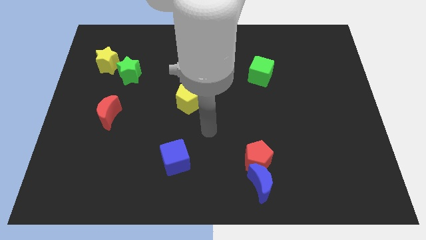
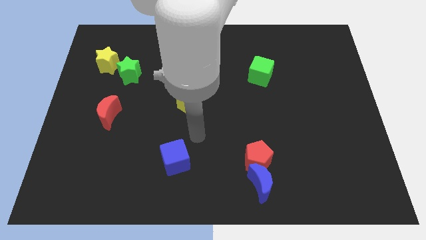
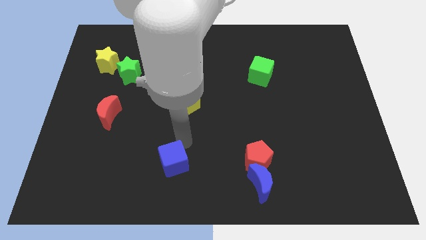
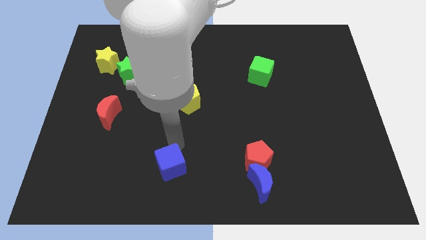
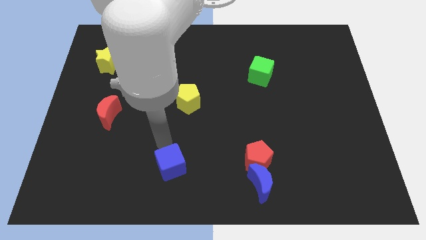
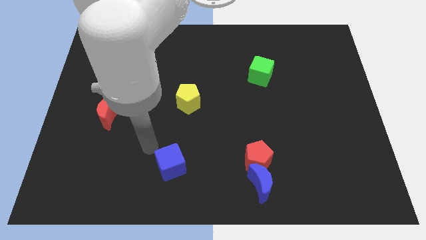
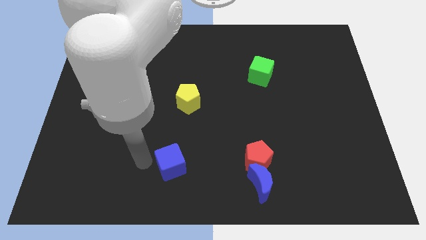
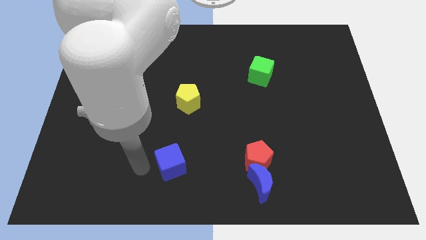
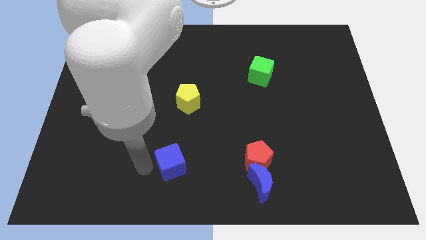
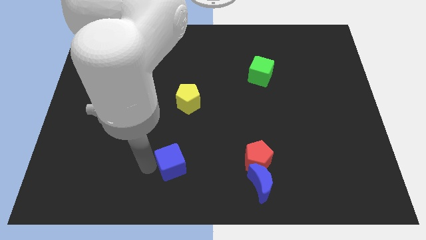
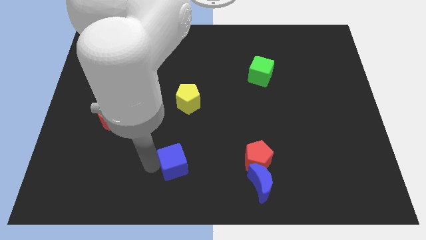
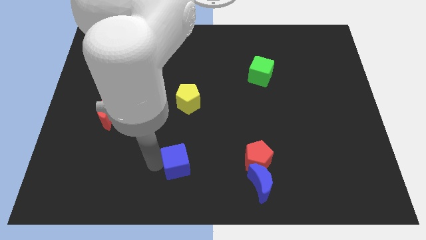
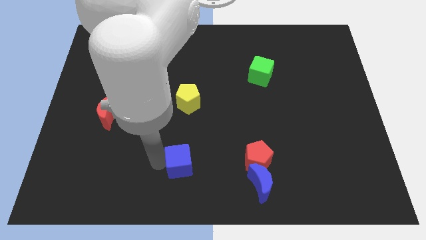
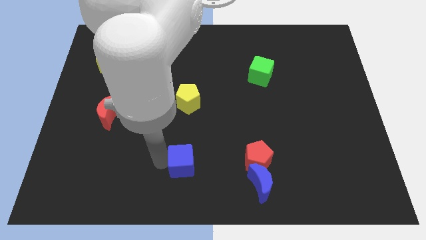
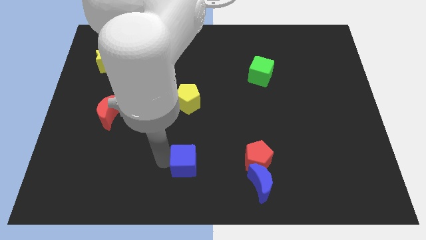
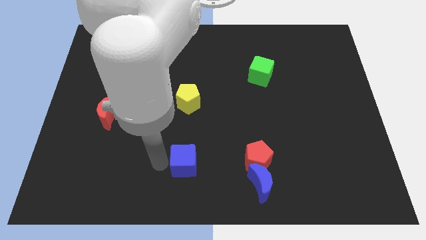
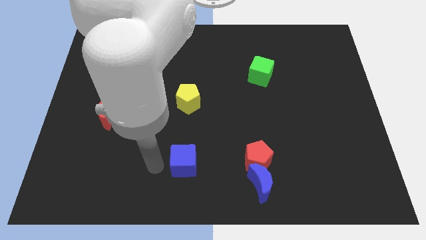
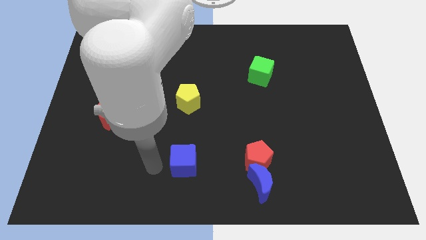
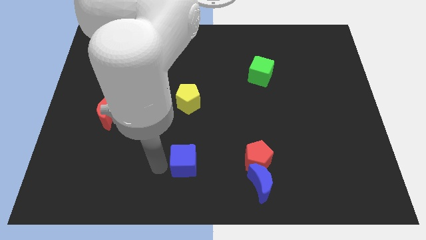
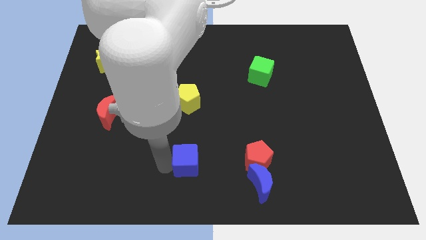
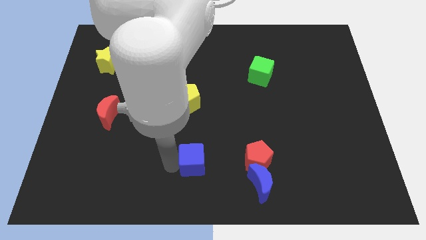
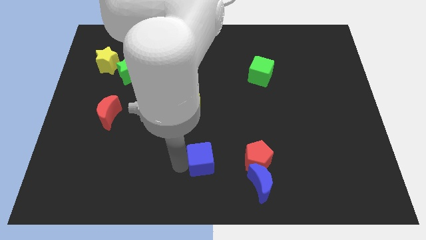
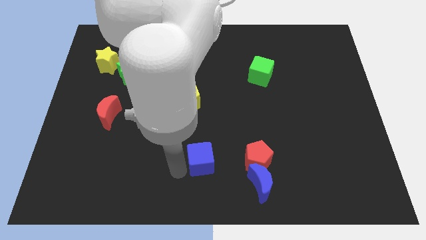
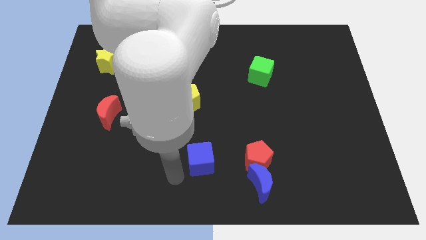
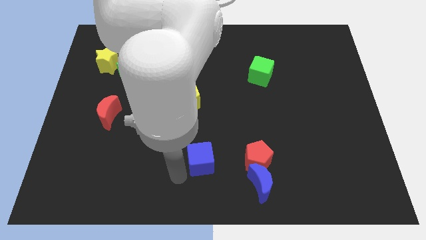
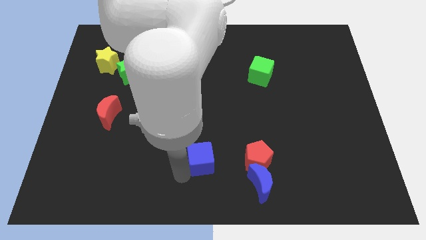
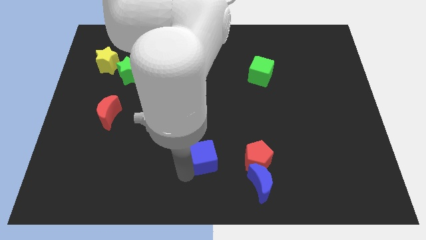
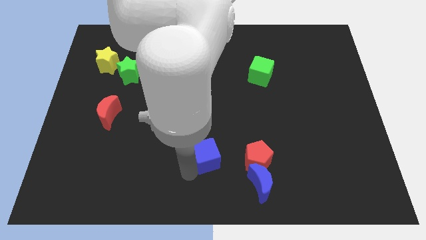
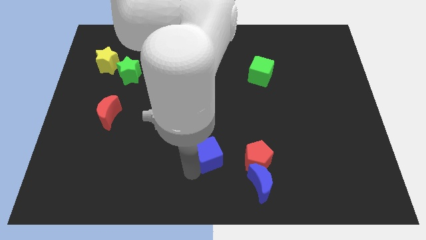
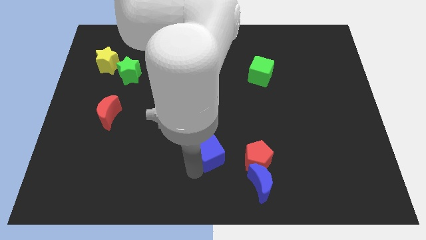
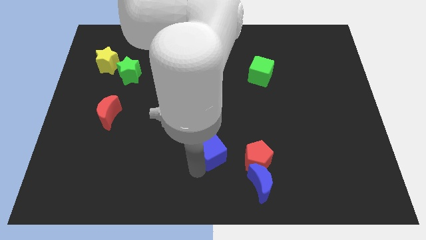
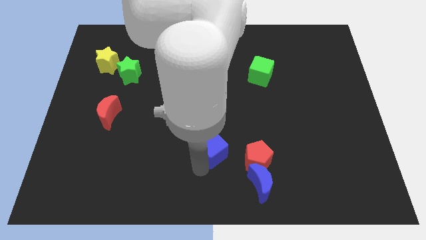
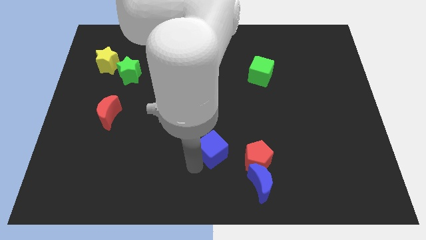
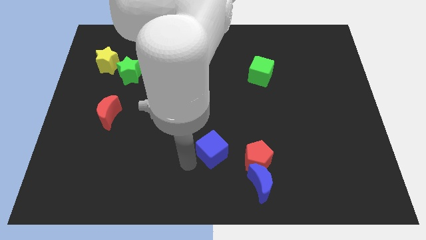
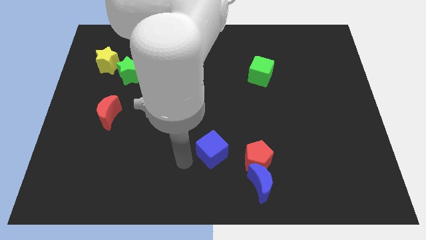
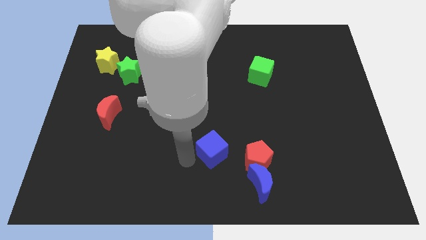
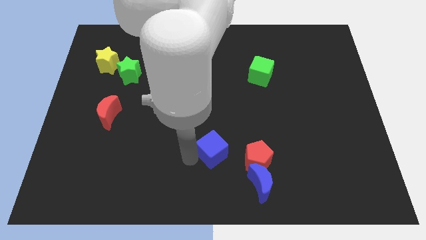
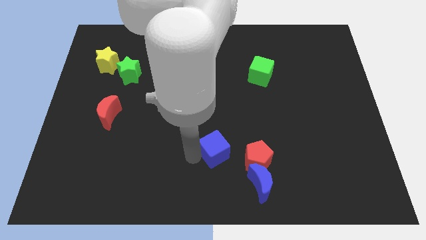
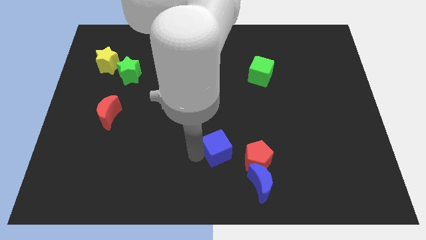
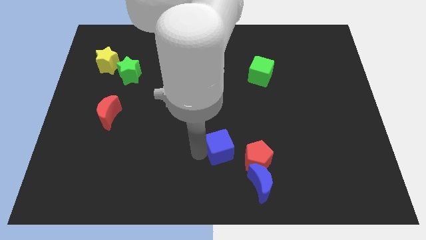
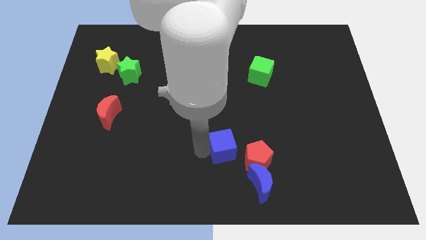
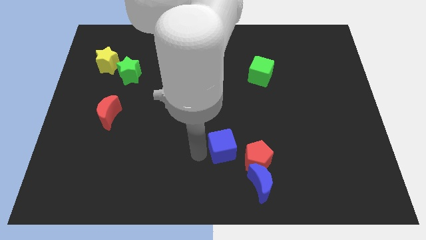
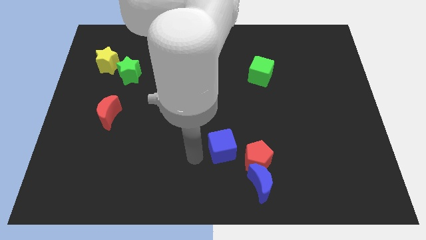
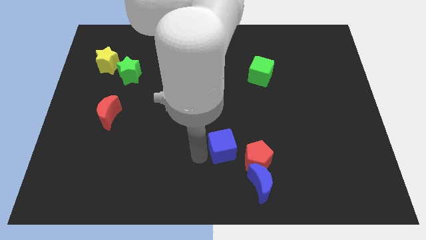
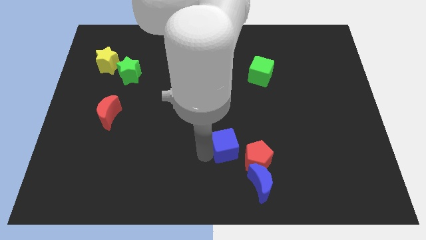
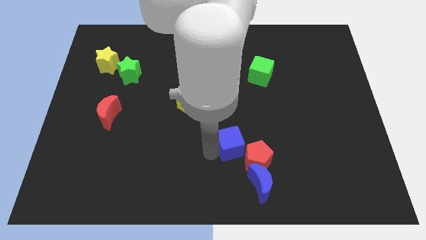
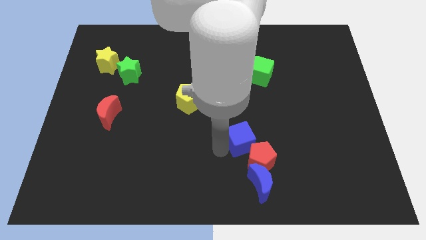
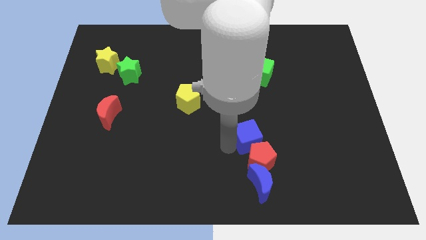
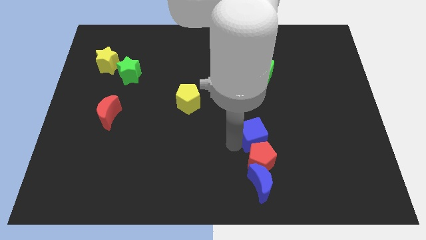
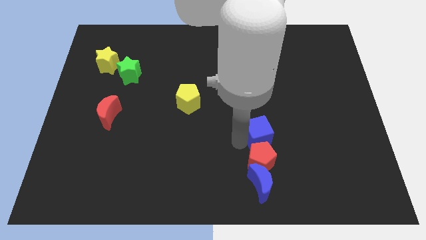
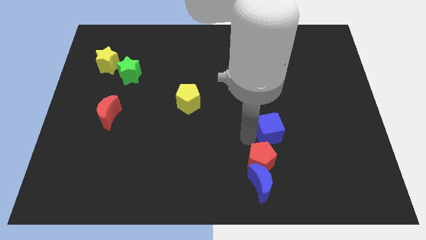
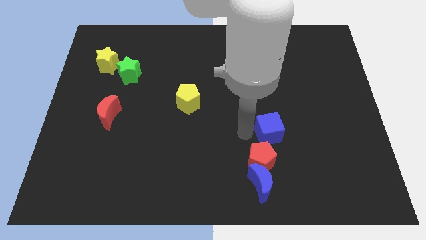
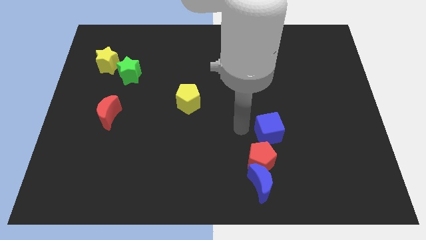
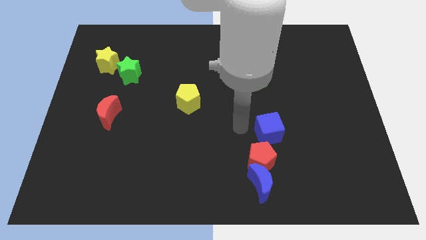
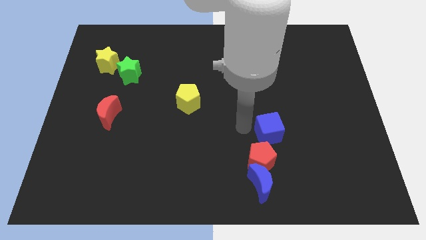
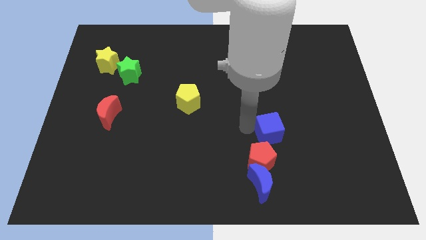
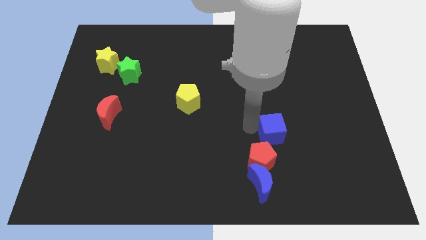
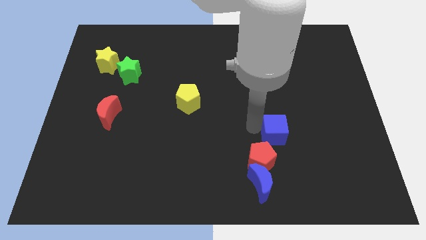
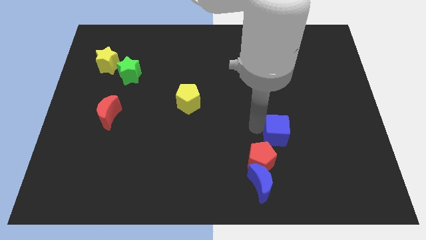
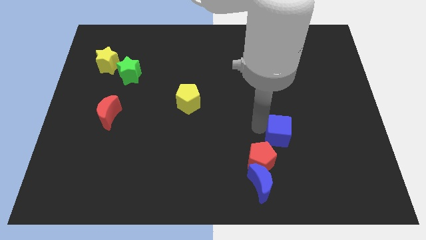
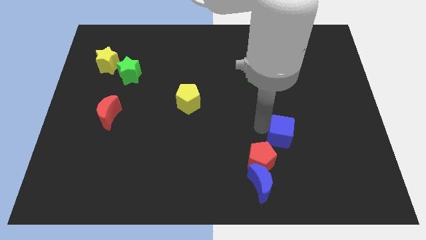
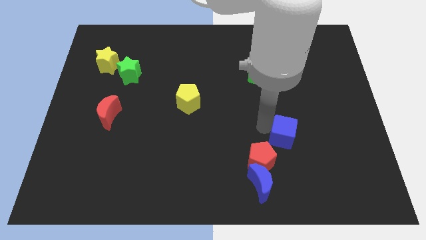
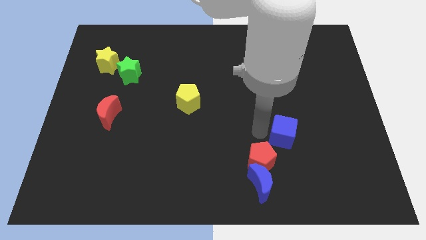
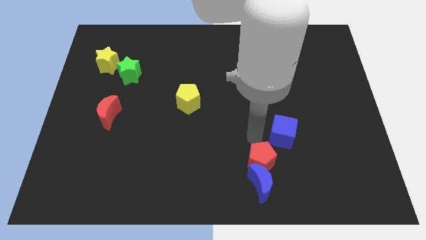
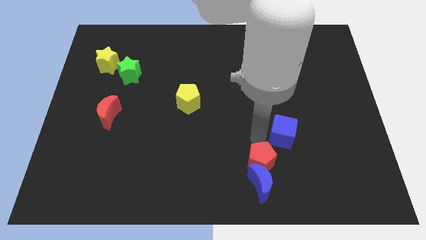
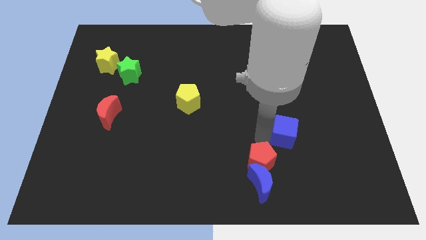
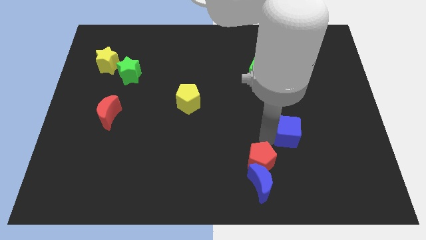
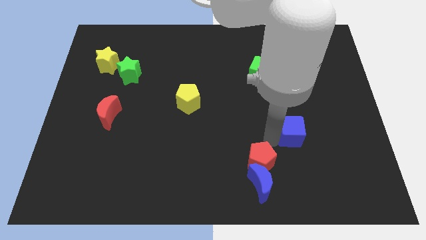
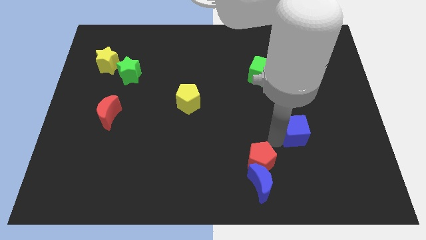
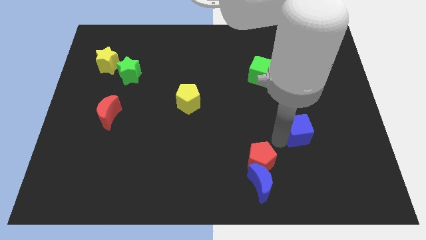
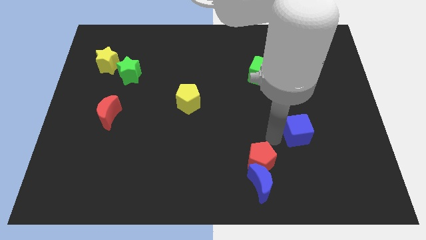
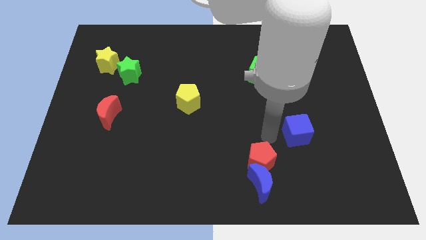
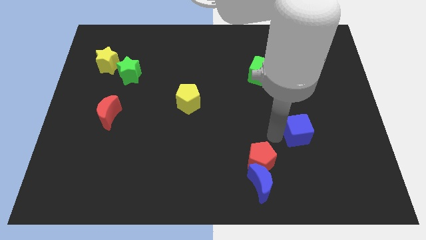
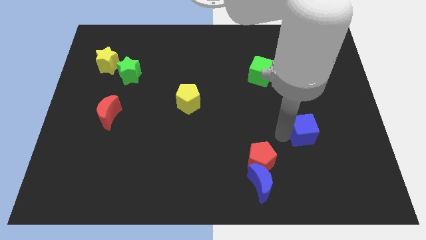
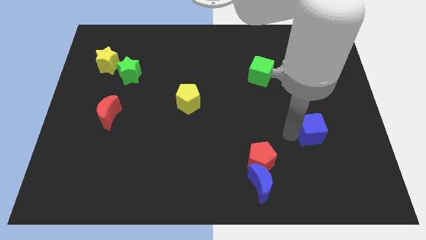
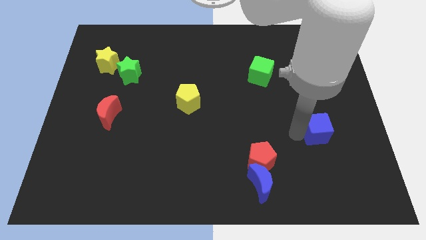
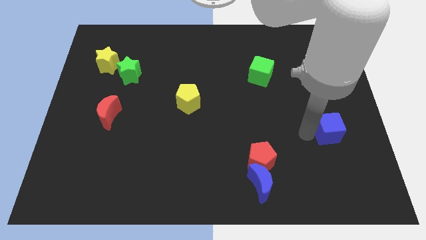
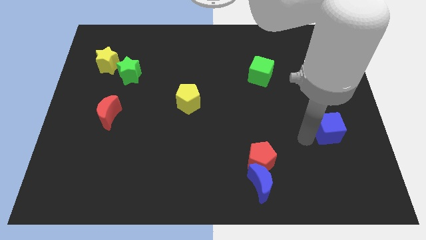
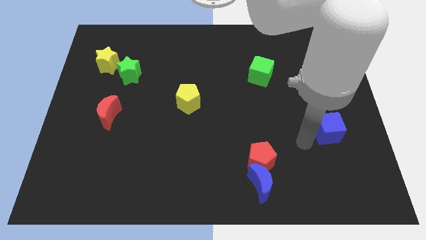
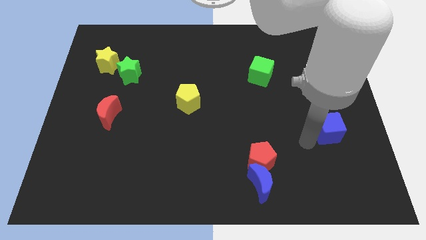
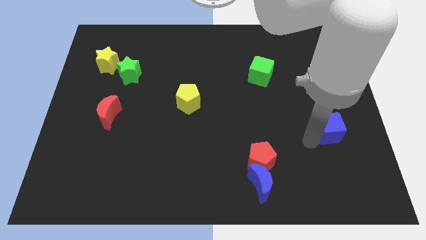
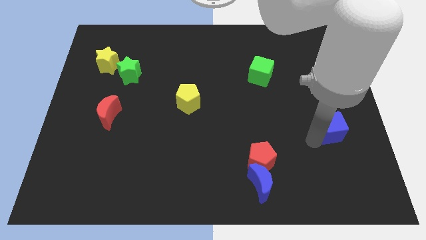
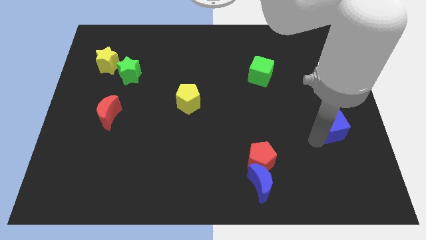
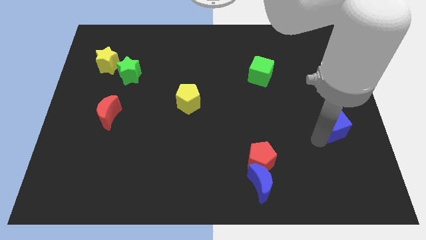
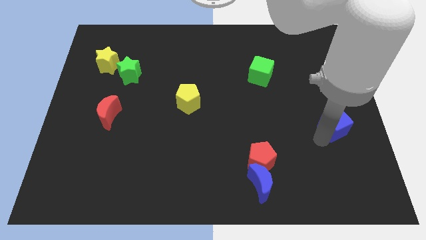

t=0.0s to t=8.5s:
put the blue cube to the right side of the board
